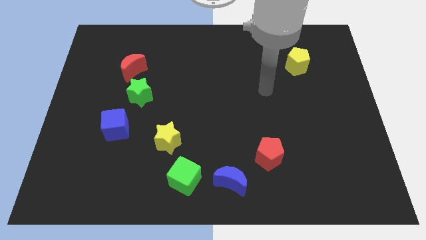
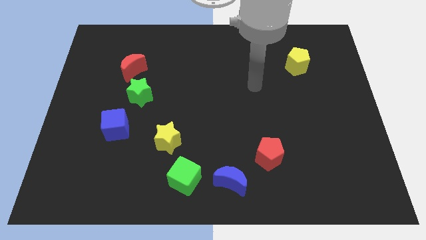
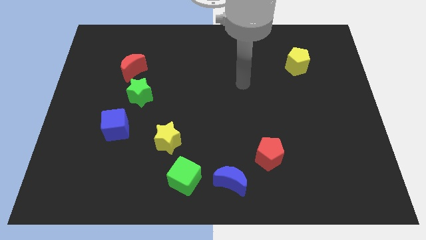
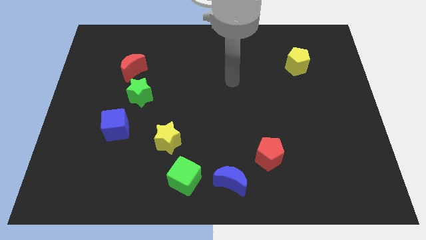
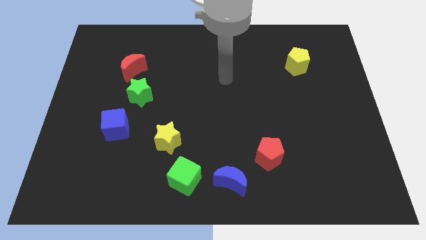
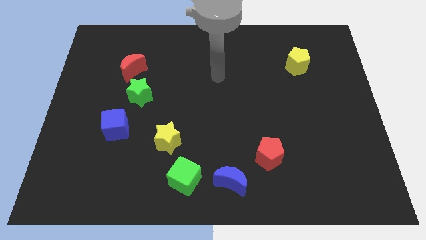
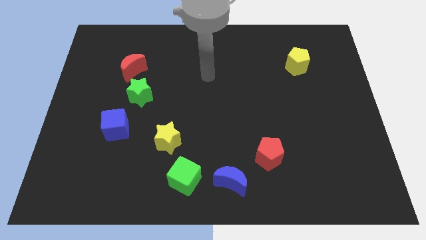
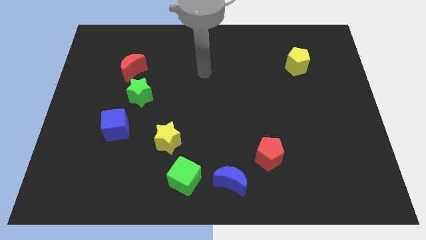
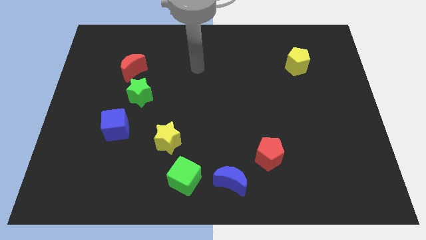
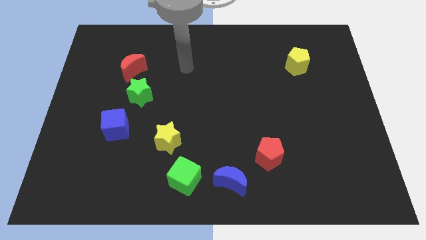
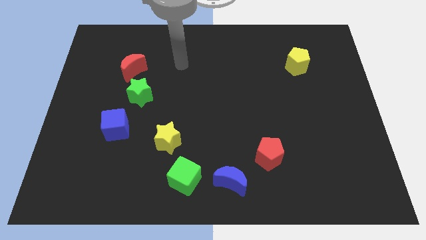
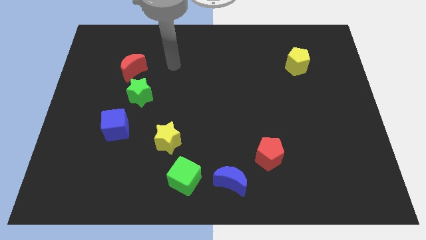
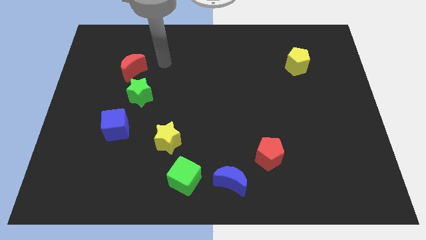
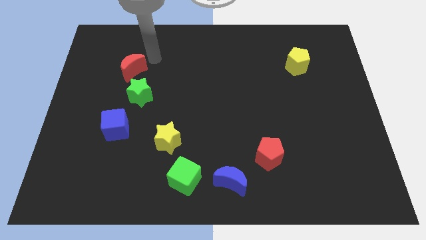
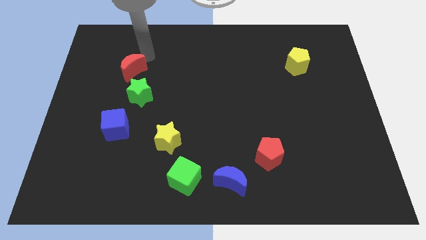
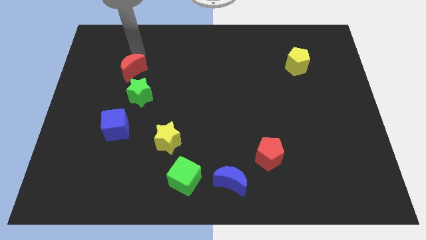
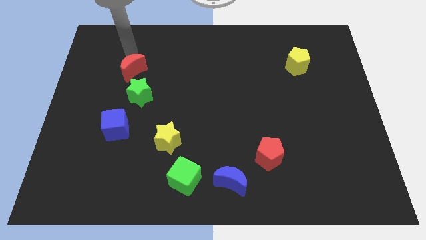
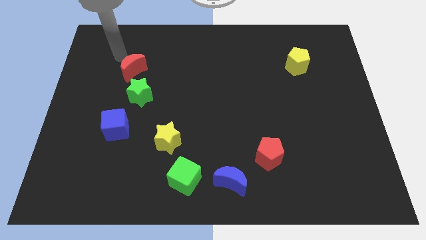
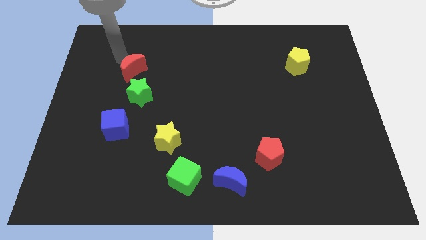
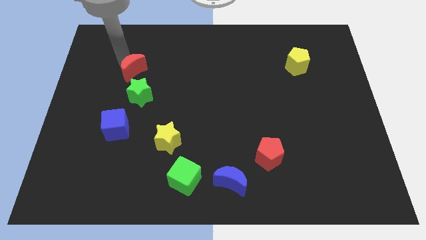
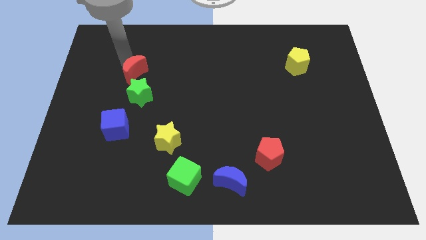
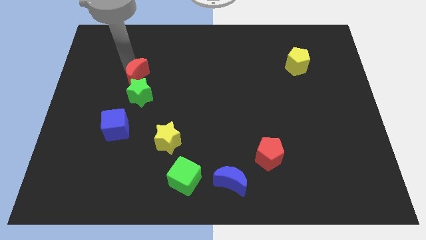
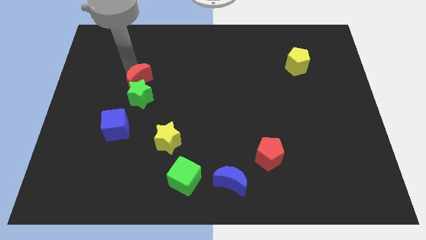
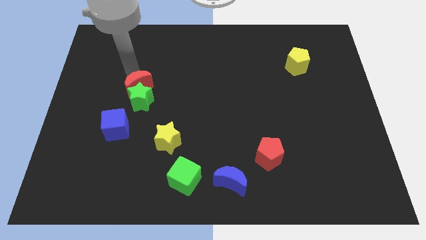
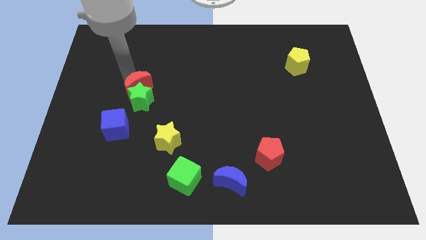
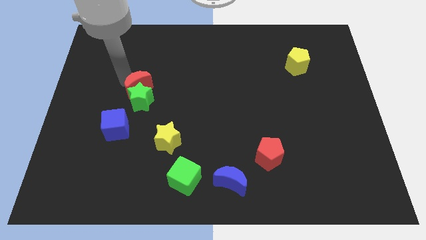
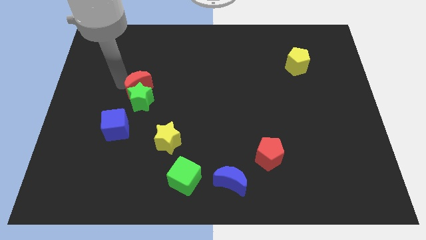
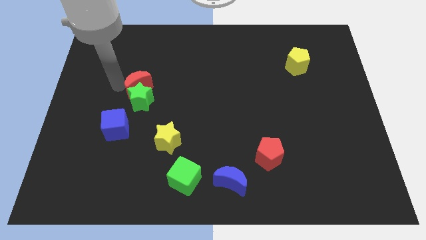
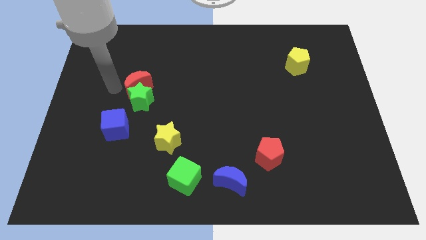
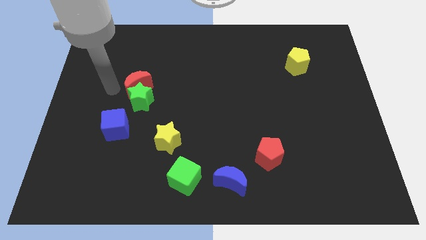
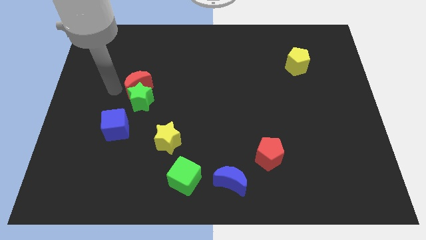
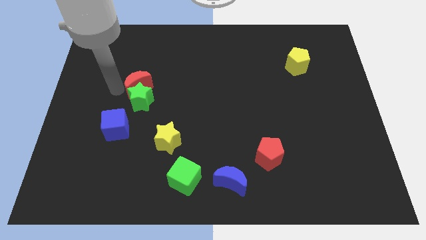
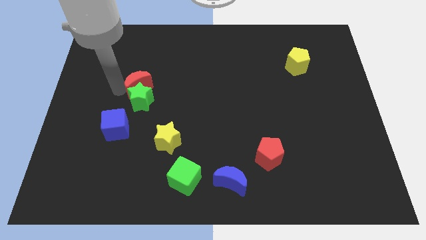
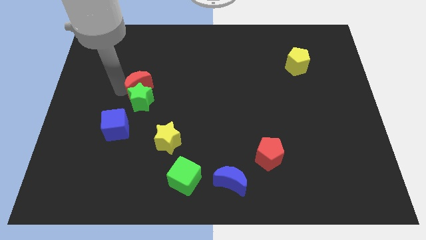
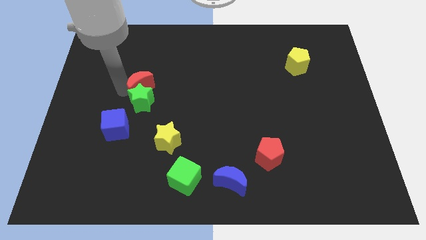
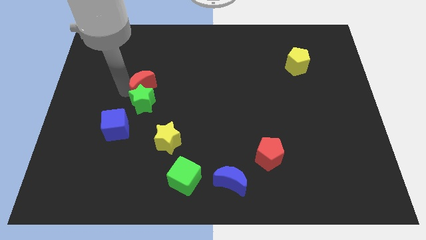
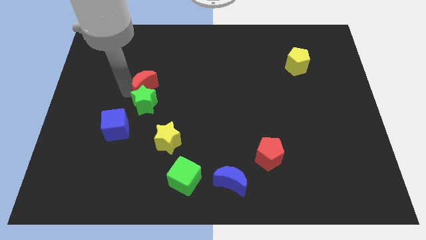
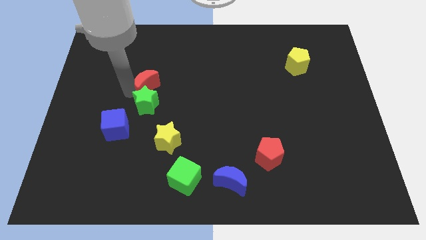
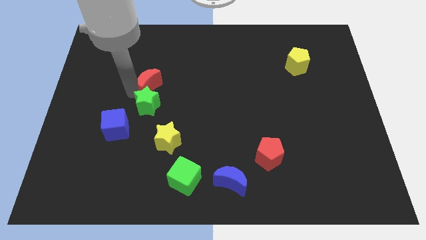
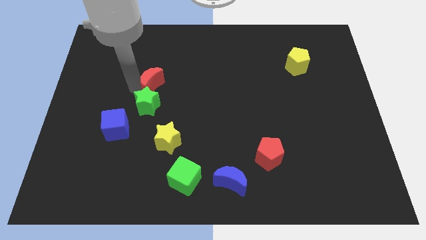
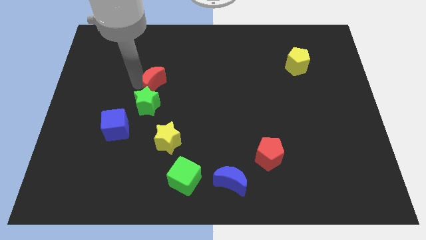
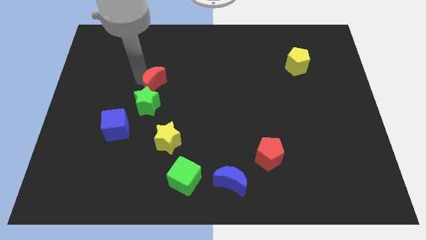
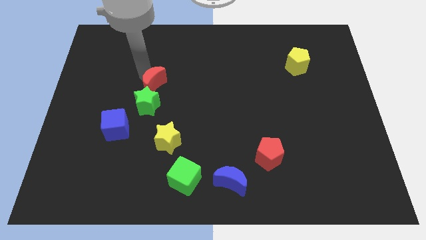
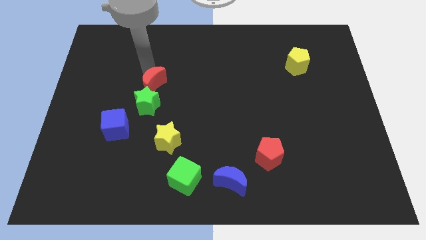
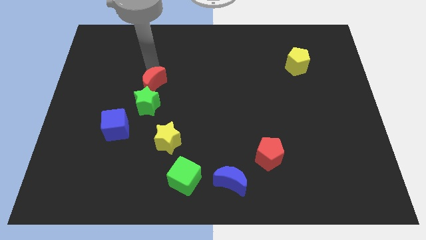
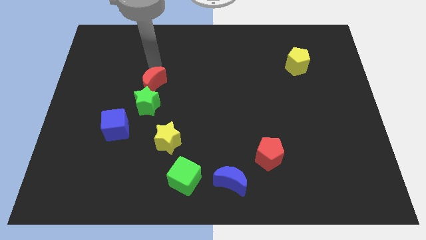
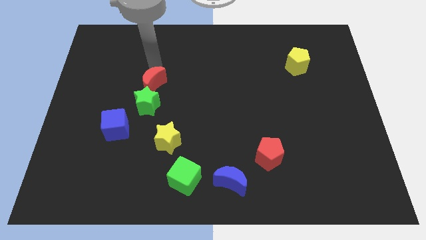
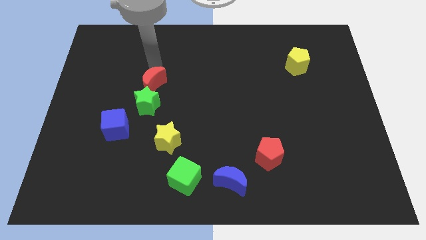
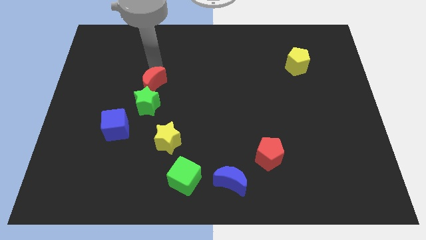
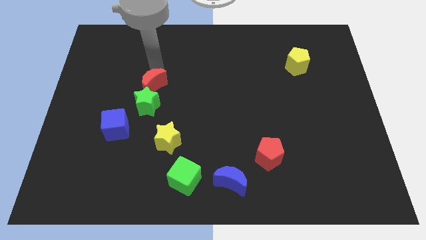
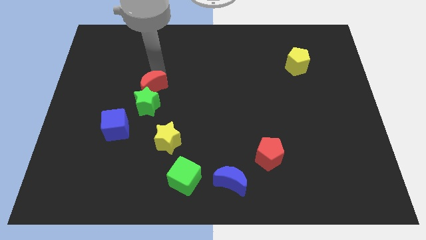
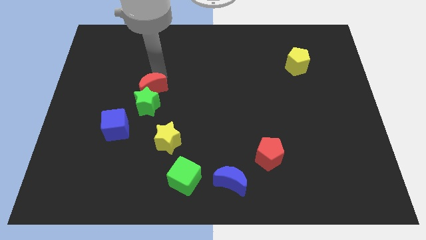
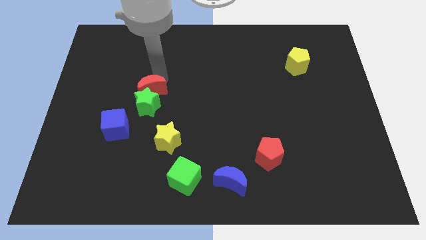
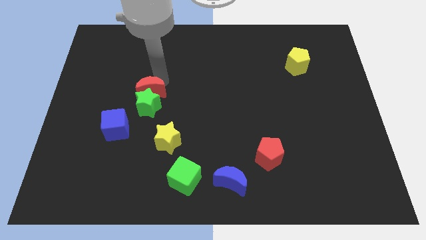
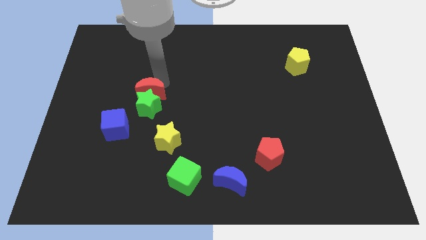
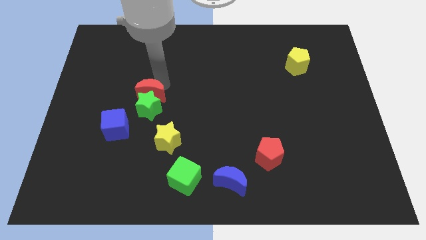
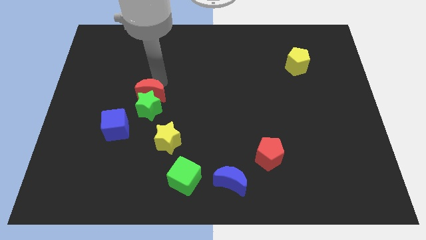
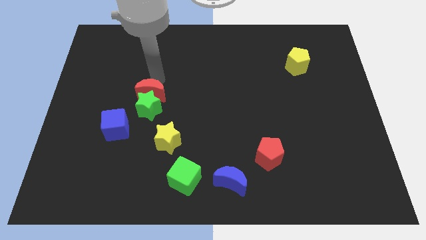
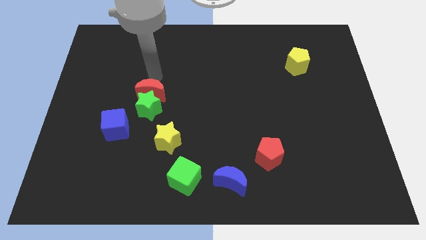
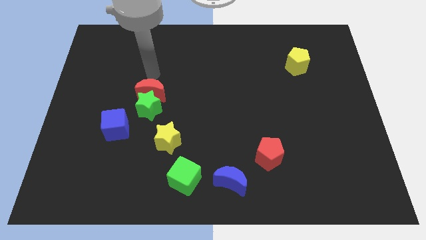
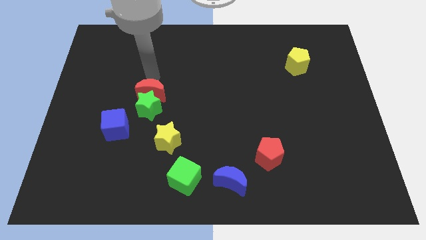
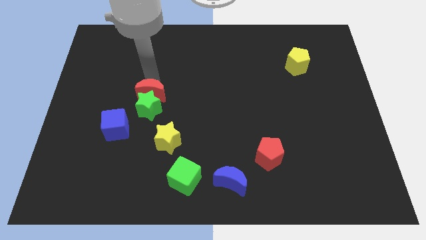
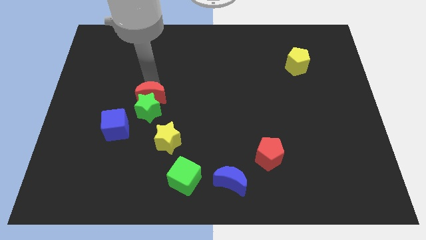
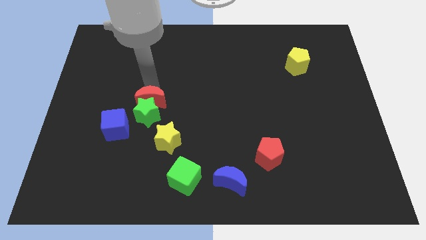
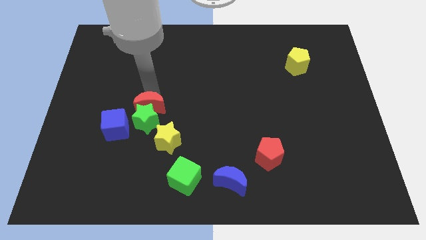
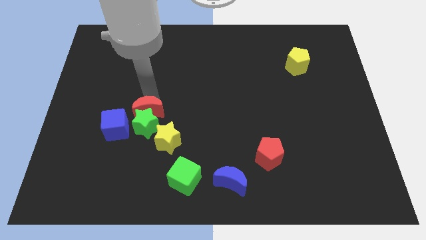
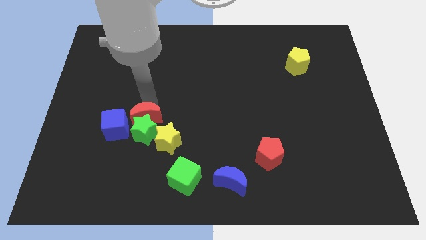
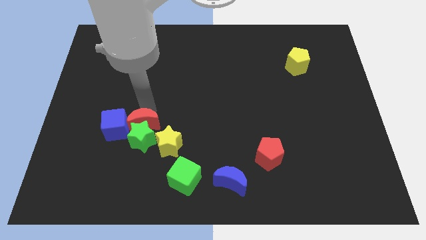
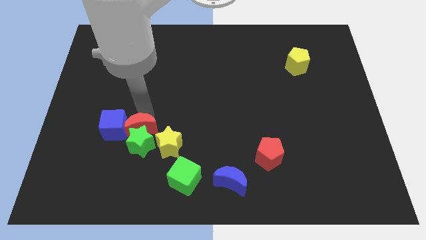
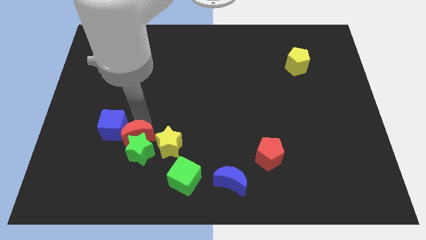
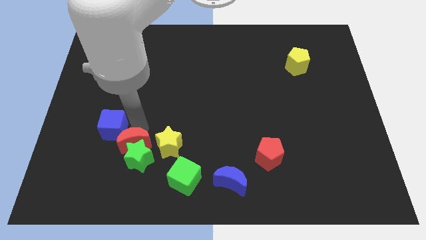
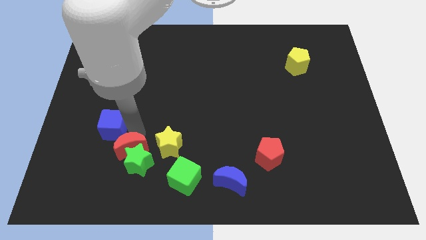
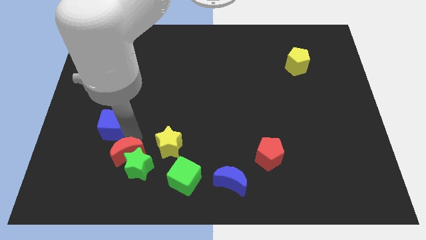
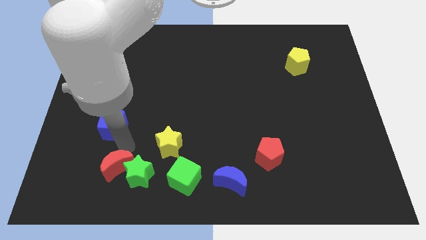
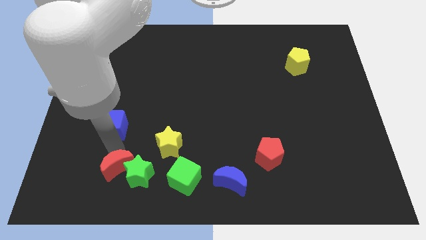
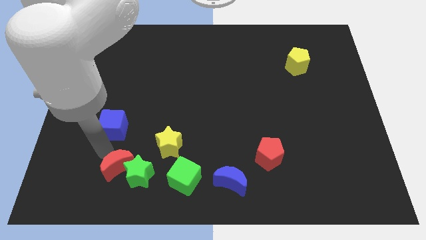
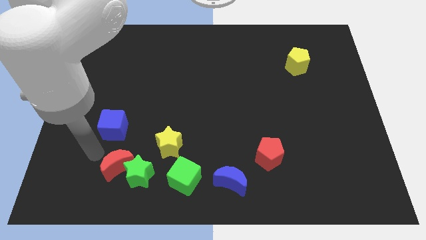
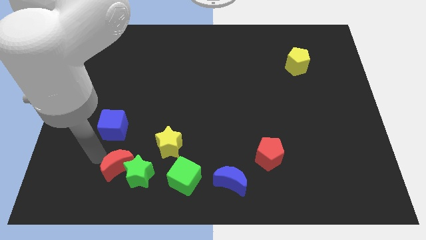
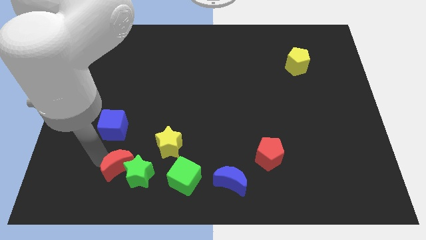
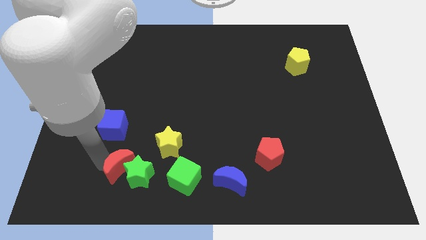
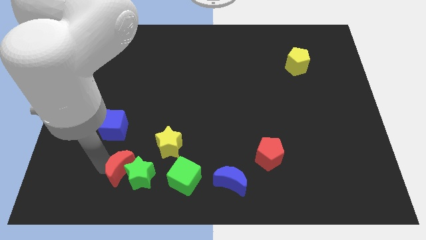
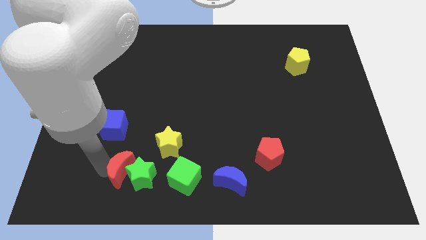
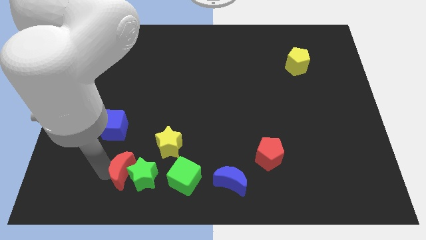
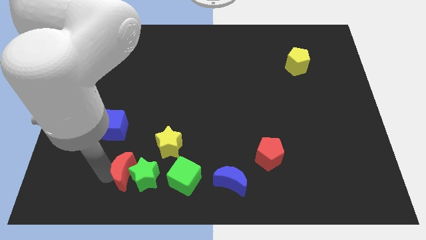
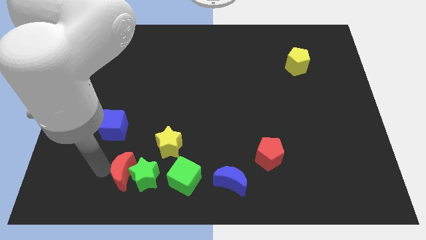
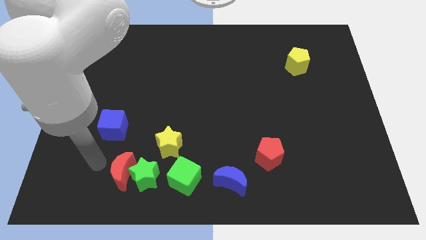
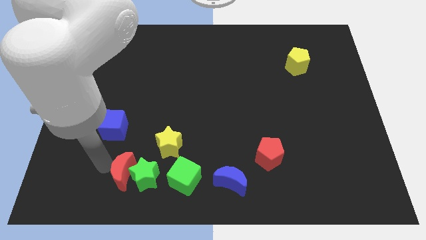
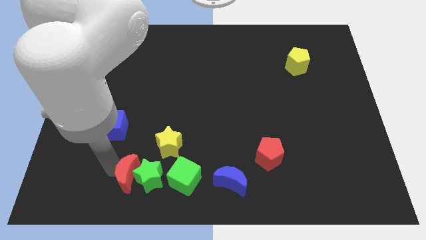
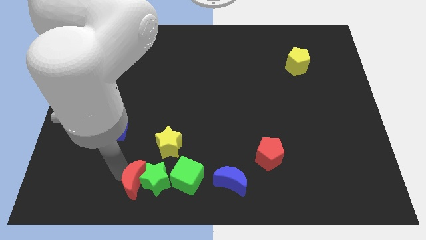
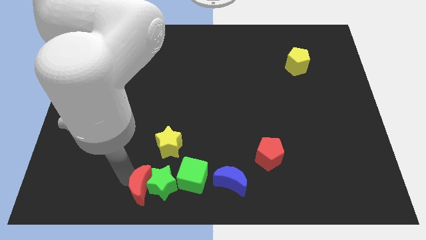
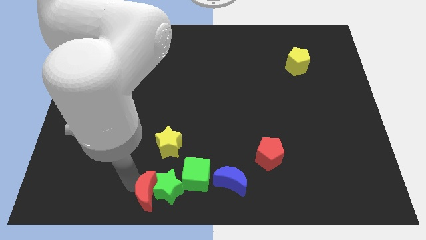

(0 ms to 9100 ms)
push the red moon below the yellow star
